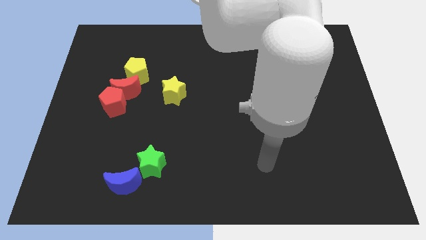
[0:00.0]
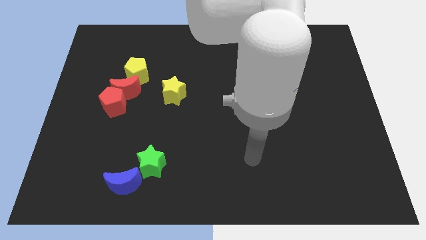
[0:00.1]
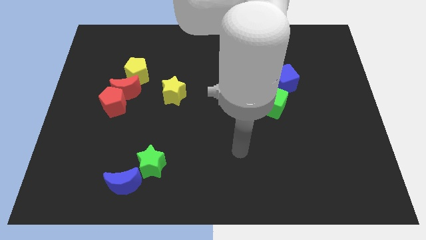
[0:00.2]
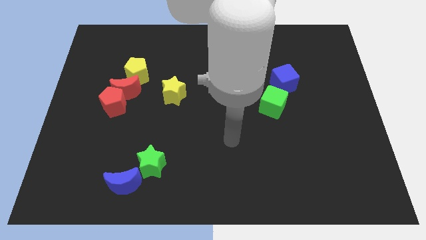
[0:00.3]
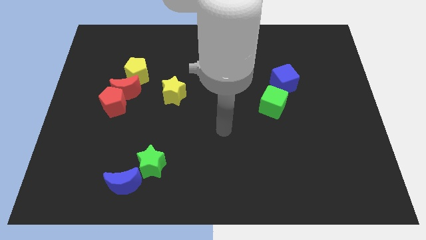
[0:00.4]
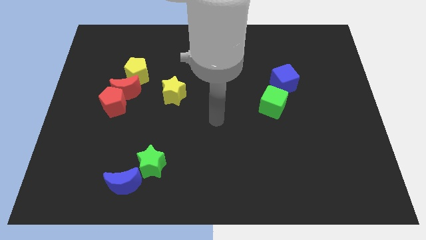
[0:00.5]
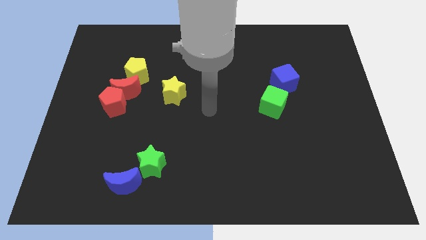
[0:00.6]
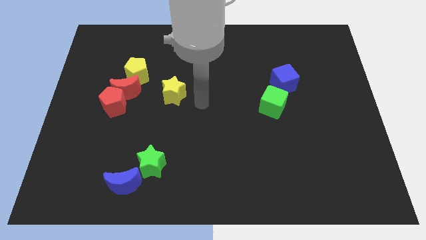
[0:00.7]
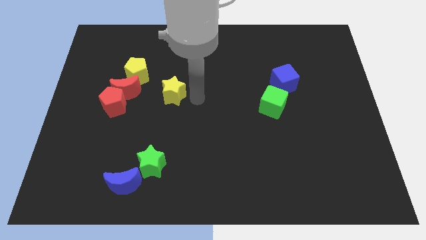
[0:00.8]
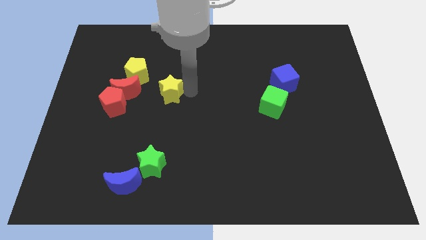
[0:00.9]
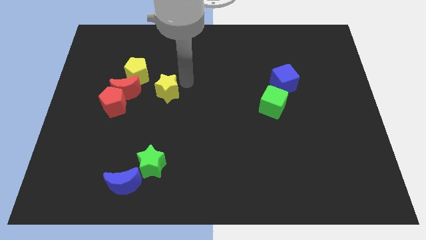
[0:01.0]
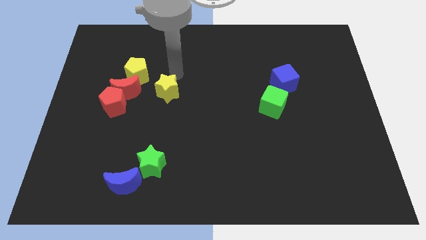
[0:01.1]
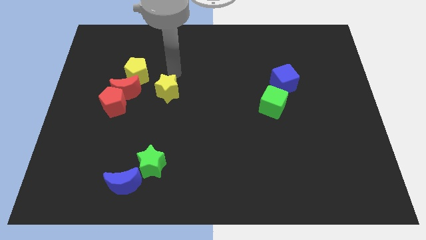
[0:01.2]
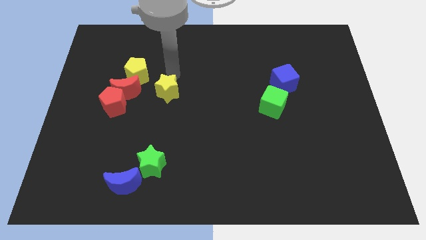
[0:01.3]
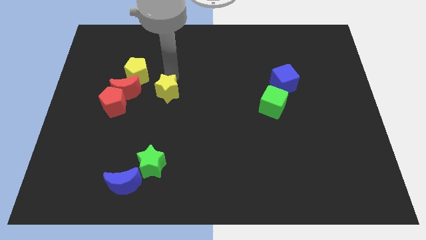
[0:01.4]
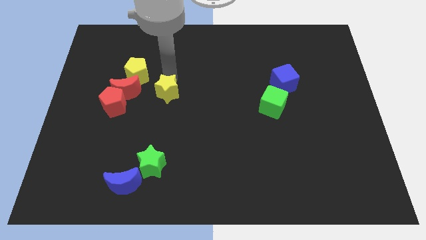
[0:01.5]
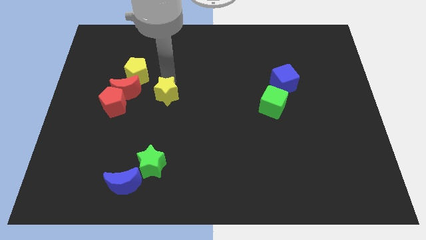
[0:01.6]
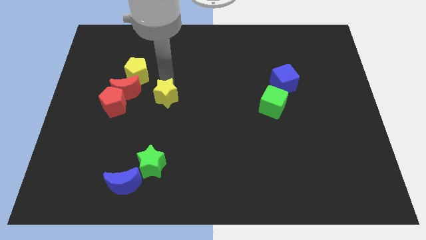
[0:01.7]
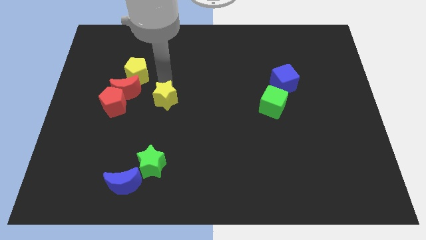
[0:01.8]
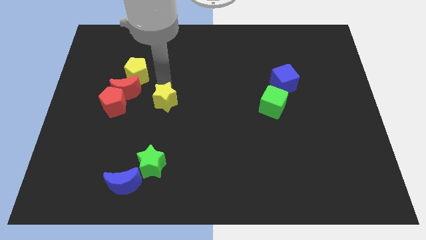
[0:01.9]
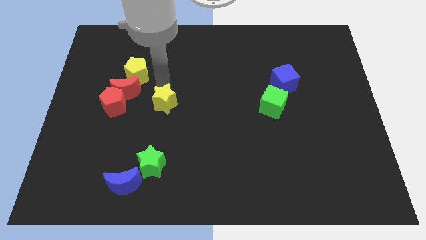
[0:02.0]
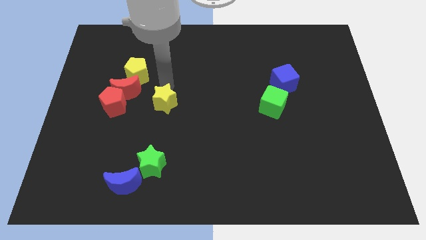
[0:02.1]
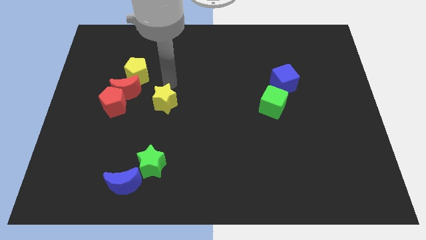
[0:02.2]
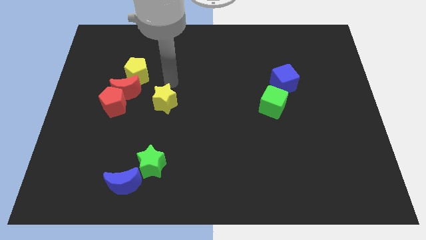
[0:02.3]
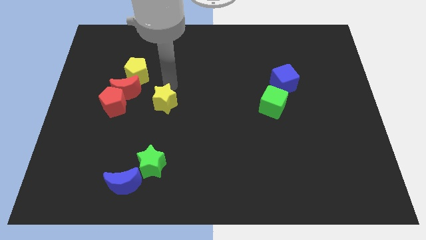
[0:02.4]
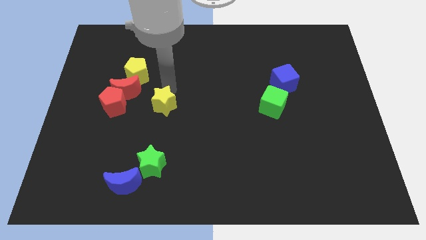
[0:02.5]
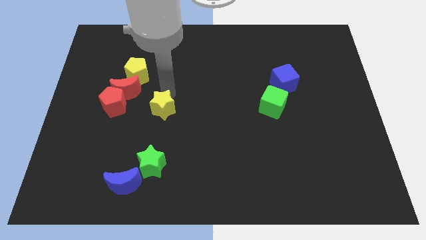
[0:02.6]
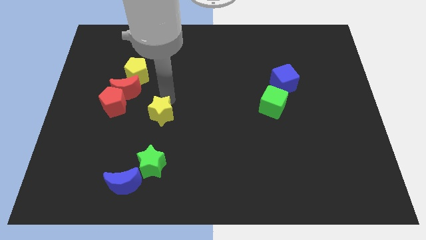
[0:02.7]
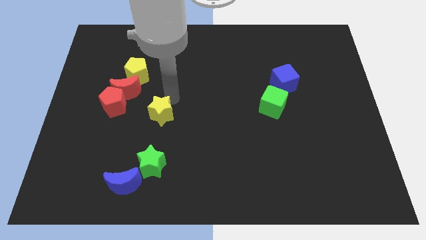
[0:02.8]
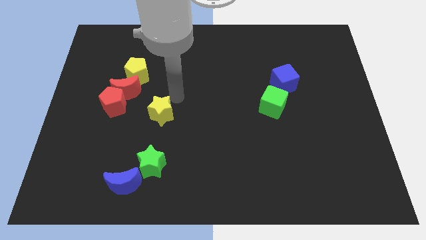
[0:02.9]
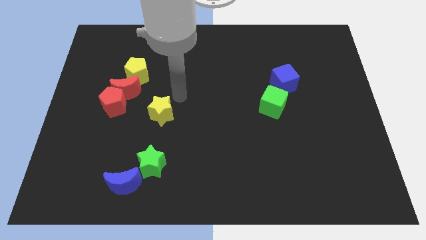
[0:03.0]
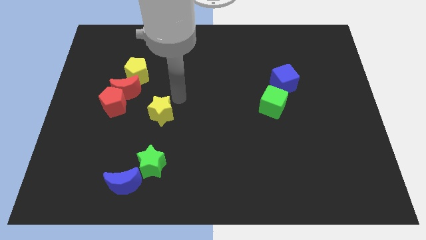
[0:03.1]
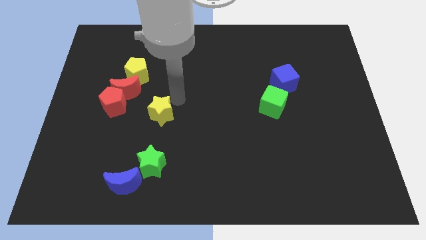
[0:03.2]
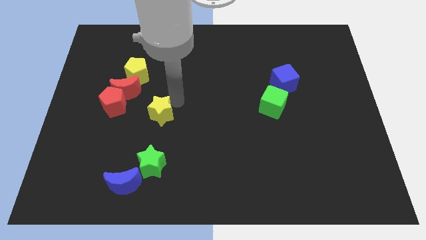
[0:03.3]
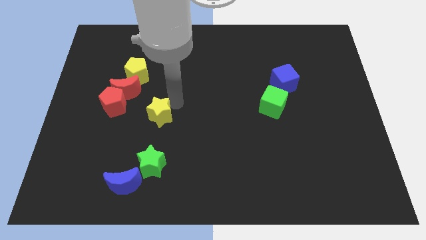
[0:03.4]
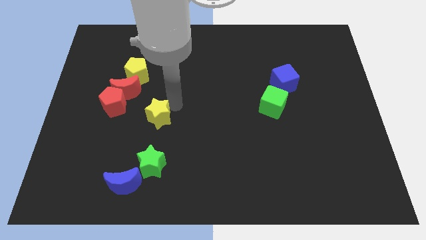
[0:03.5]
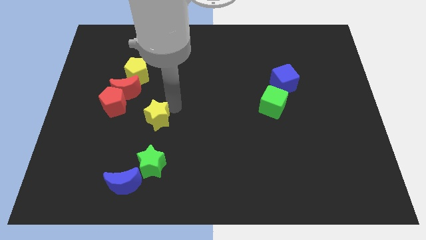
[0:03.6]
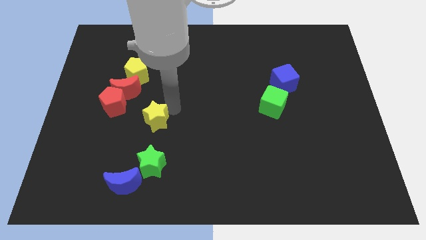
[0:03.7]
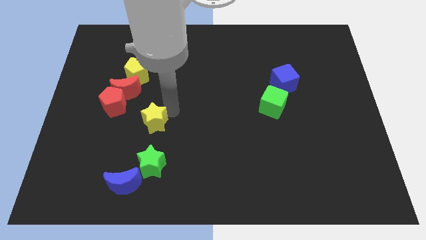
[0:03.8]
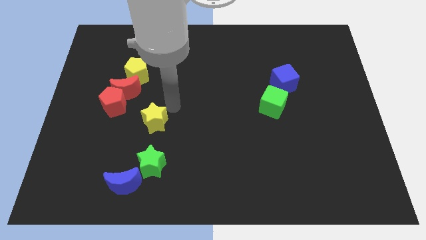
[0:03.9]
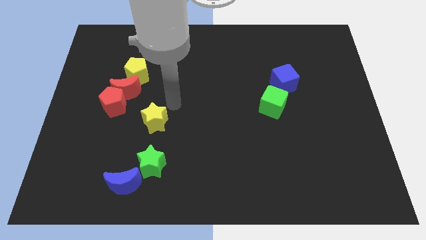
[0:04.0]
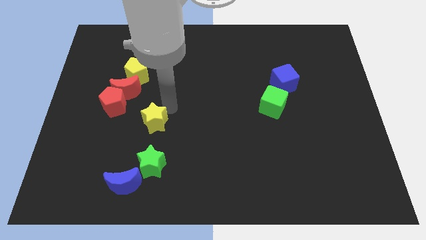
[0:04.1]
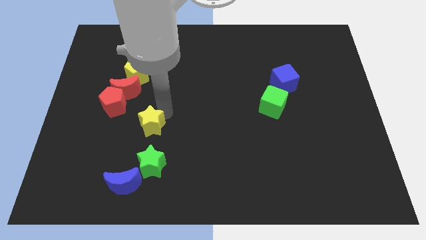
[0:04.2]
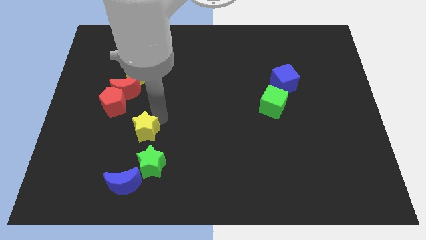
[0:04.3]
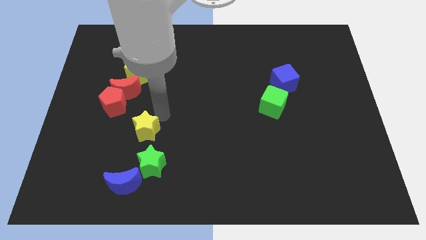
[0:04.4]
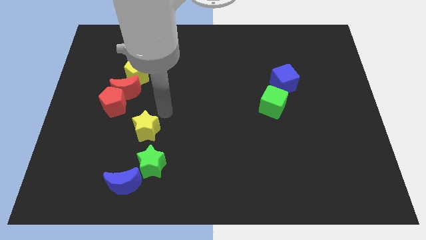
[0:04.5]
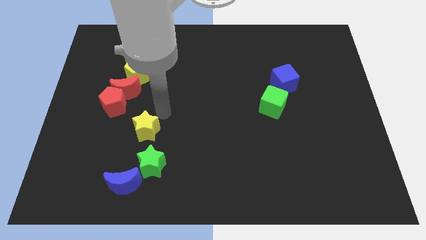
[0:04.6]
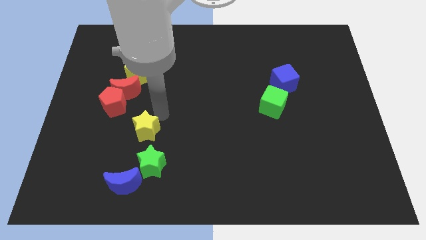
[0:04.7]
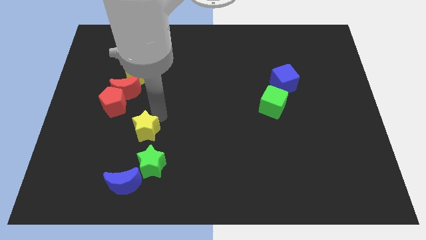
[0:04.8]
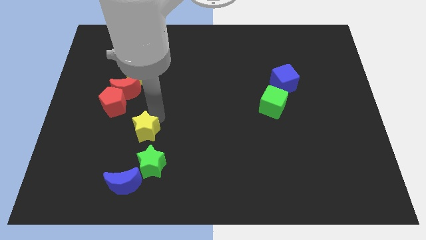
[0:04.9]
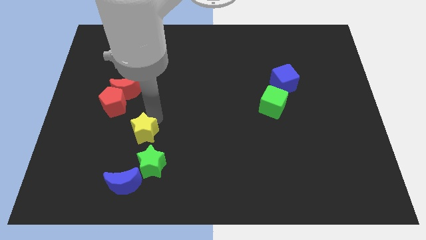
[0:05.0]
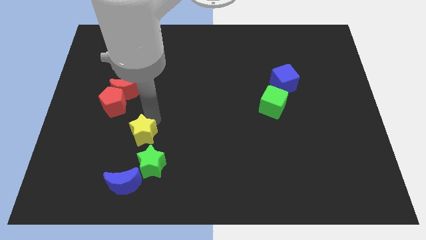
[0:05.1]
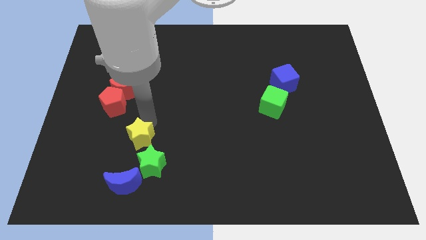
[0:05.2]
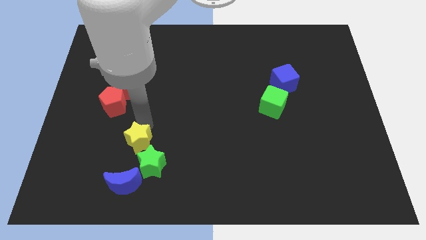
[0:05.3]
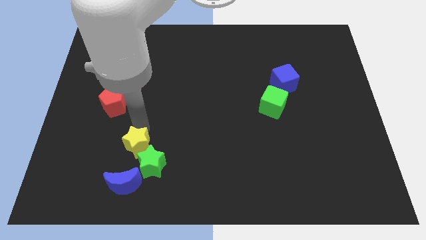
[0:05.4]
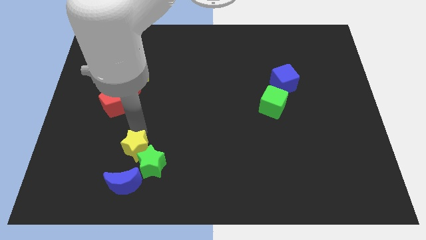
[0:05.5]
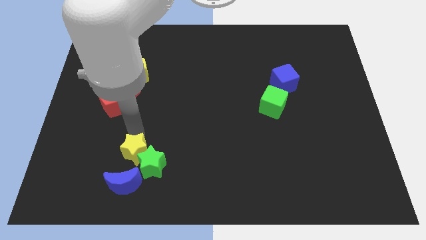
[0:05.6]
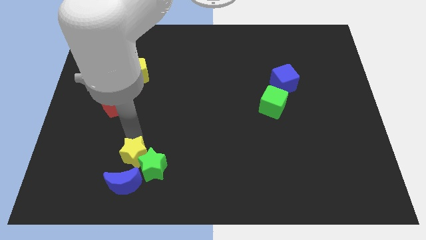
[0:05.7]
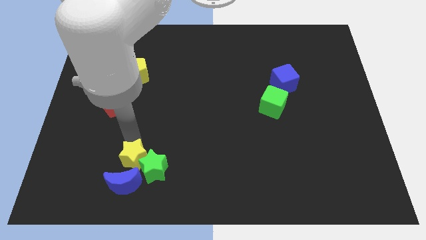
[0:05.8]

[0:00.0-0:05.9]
push the yellow star next to the blue moon

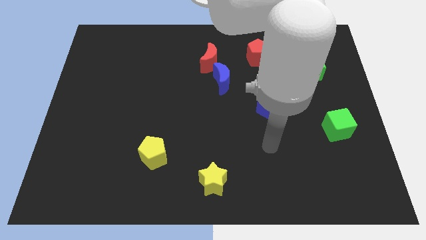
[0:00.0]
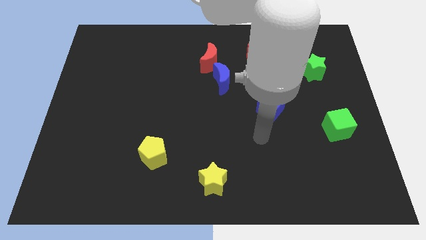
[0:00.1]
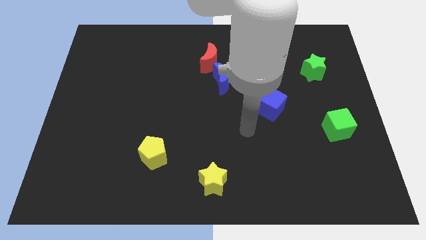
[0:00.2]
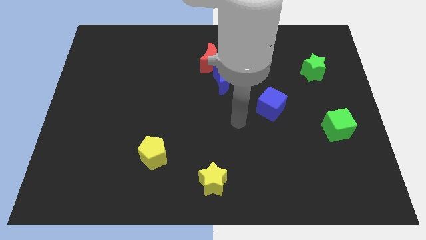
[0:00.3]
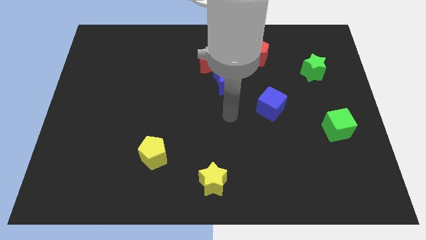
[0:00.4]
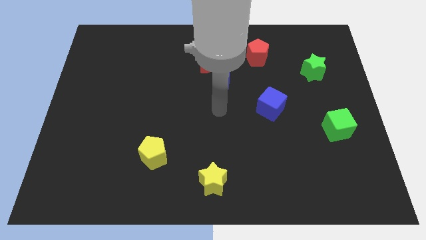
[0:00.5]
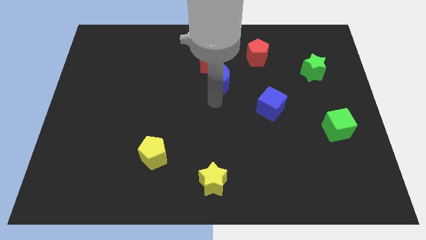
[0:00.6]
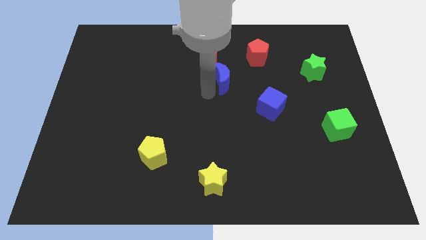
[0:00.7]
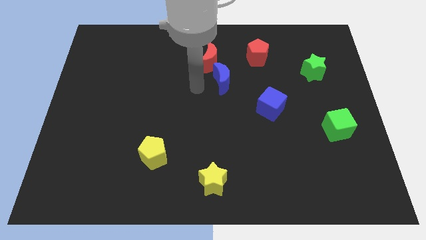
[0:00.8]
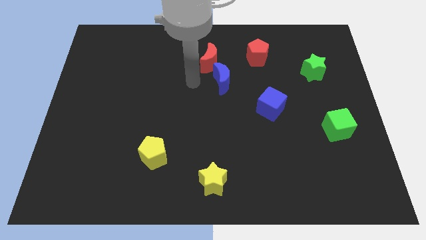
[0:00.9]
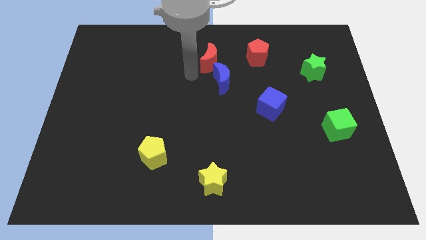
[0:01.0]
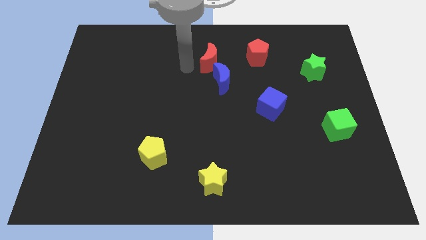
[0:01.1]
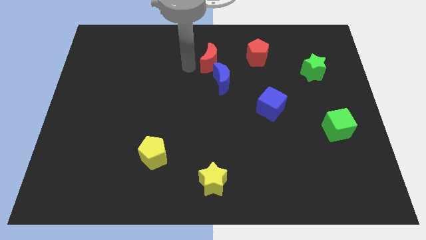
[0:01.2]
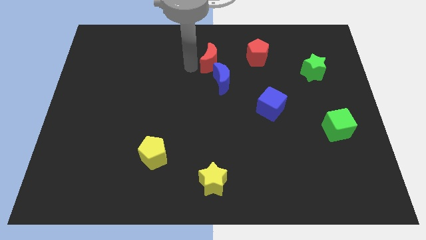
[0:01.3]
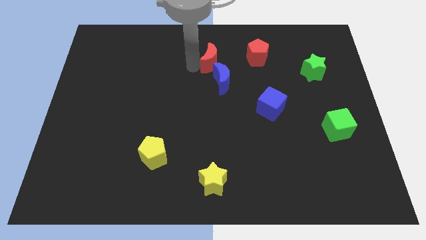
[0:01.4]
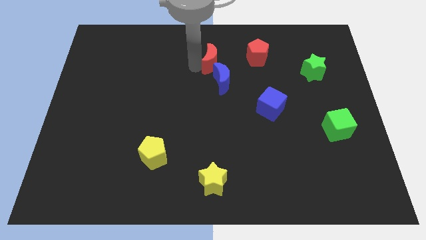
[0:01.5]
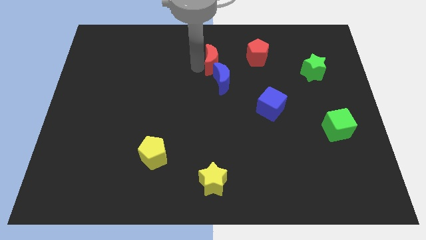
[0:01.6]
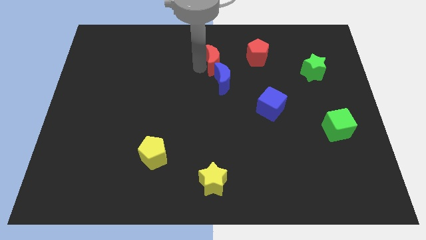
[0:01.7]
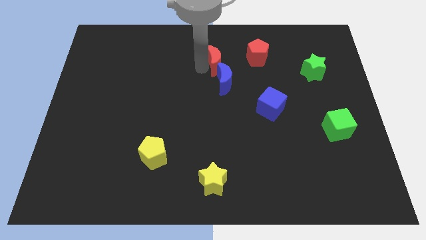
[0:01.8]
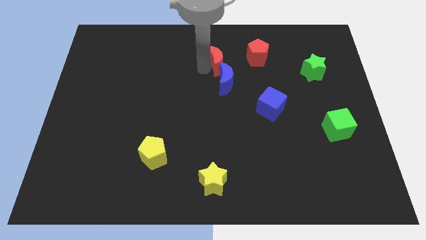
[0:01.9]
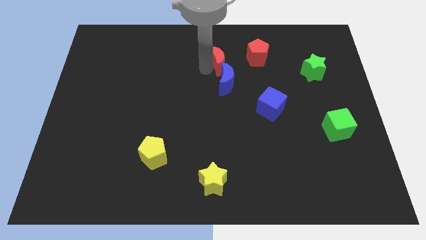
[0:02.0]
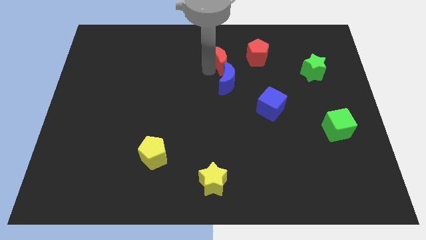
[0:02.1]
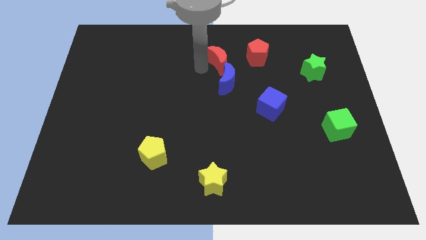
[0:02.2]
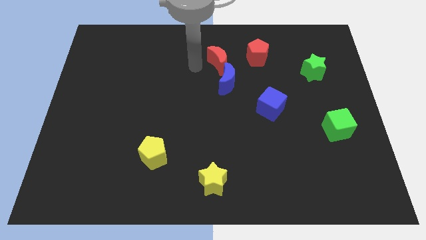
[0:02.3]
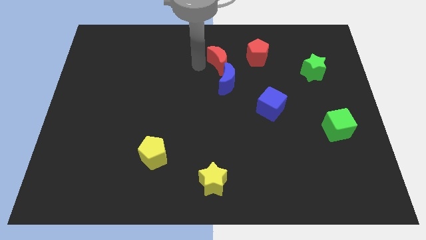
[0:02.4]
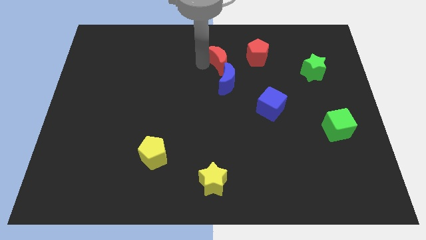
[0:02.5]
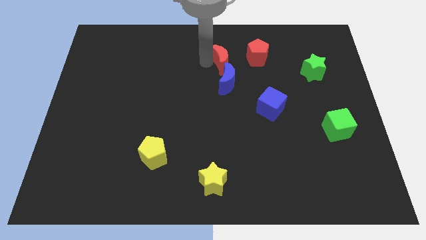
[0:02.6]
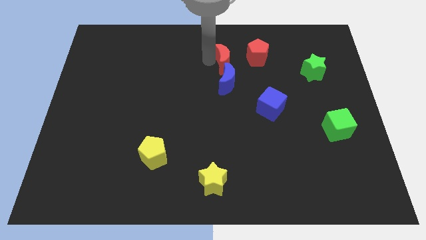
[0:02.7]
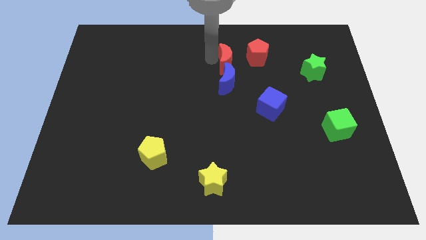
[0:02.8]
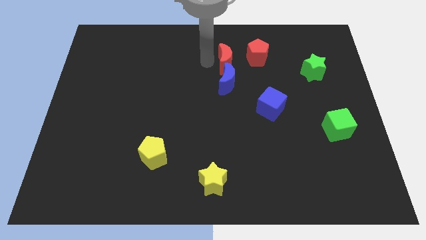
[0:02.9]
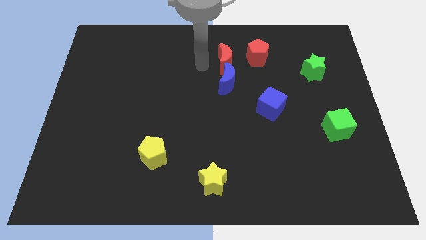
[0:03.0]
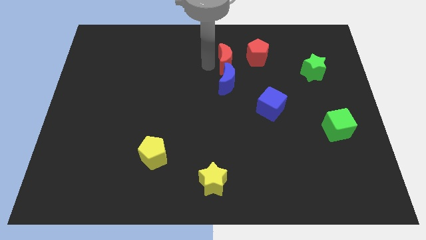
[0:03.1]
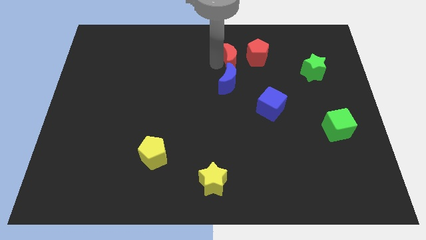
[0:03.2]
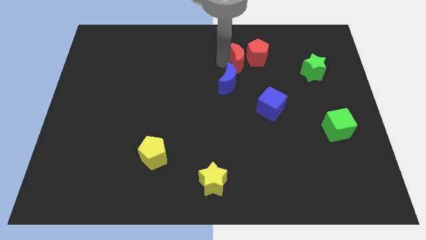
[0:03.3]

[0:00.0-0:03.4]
push the red moon close to the red pentagon
